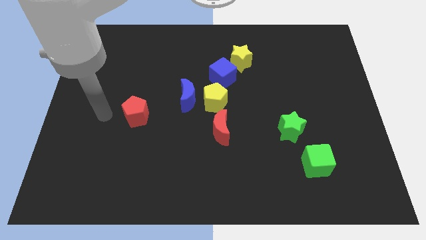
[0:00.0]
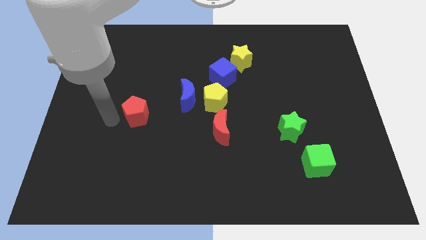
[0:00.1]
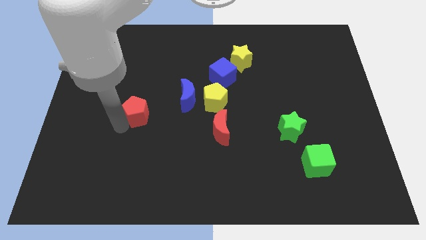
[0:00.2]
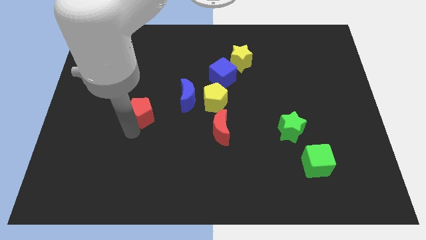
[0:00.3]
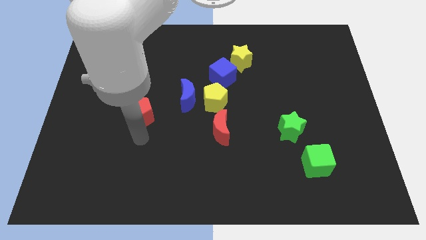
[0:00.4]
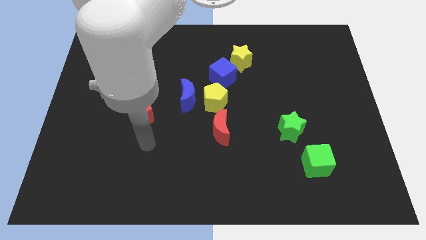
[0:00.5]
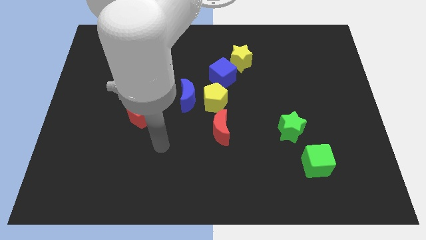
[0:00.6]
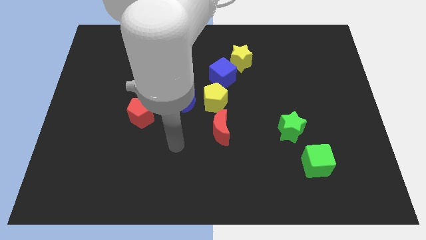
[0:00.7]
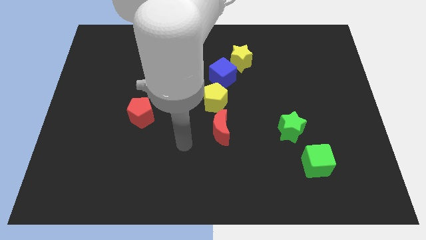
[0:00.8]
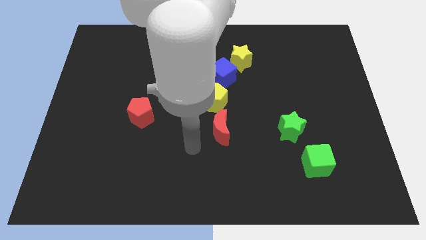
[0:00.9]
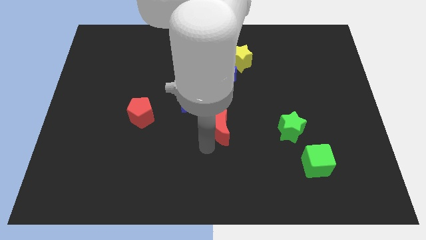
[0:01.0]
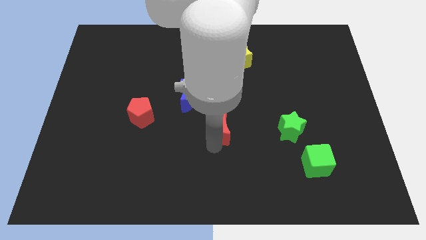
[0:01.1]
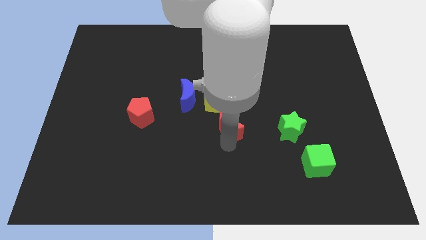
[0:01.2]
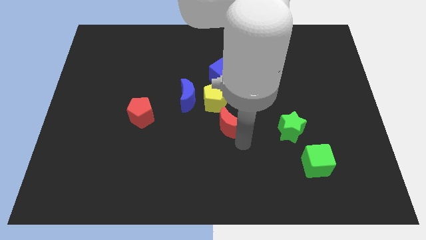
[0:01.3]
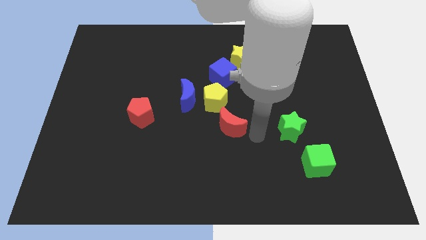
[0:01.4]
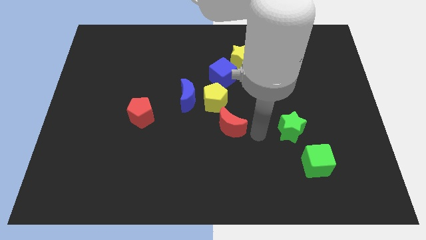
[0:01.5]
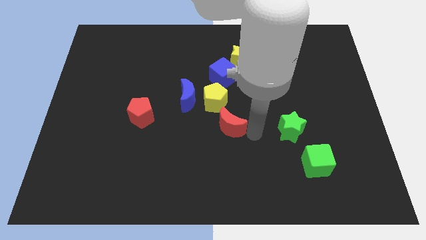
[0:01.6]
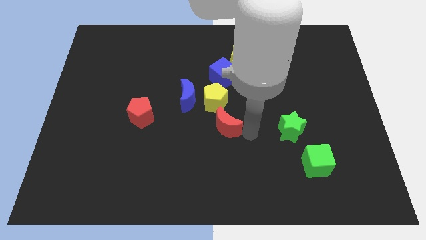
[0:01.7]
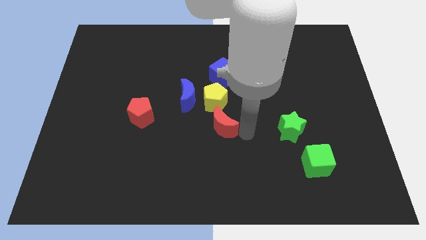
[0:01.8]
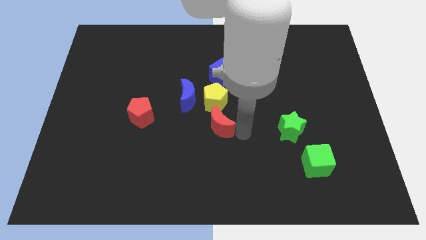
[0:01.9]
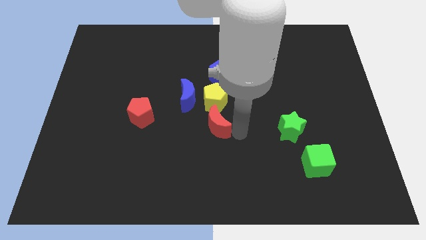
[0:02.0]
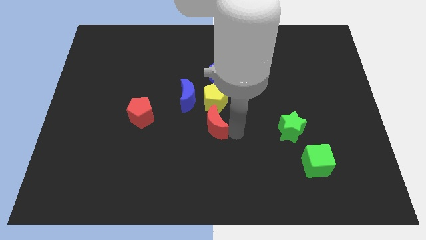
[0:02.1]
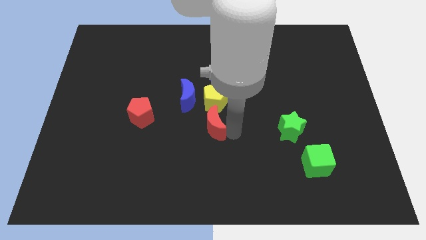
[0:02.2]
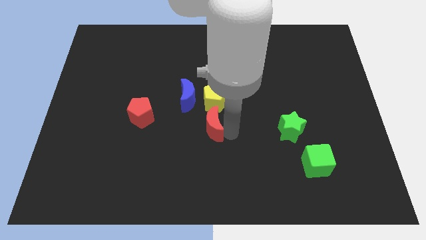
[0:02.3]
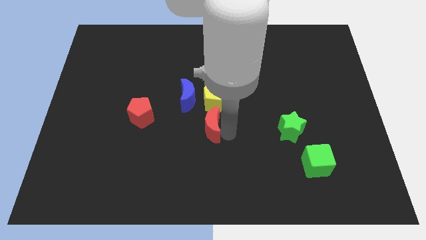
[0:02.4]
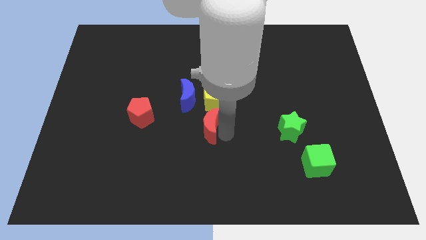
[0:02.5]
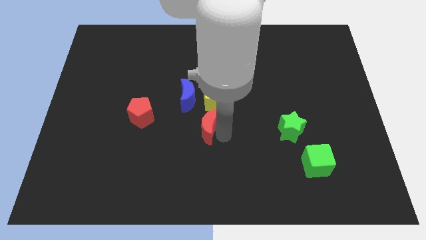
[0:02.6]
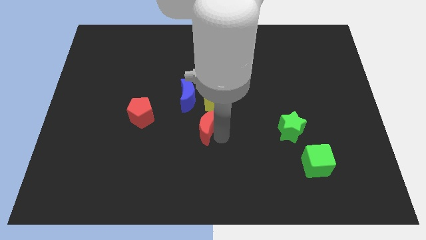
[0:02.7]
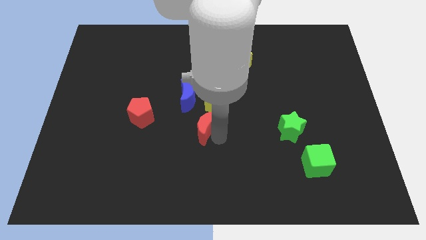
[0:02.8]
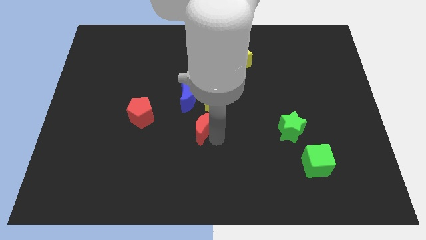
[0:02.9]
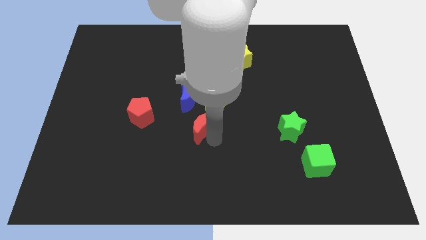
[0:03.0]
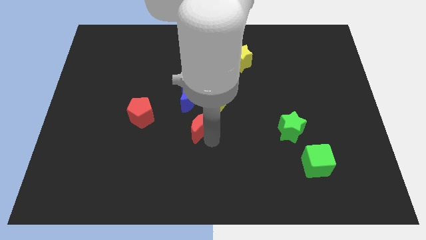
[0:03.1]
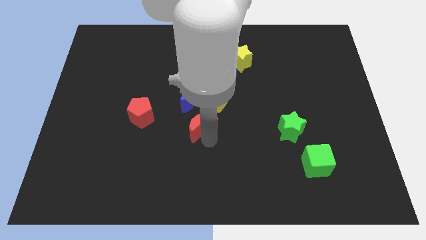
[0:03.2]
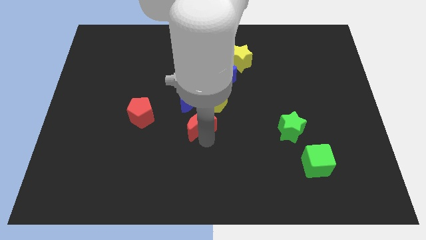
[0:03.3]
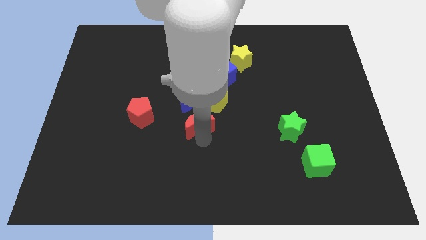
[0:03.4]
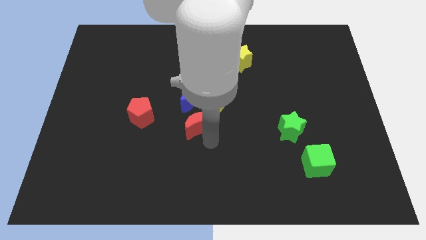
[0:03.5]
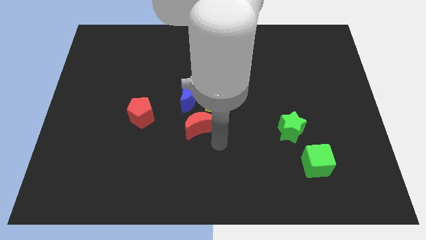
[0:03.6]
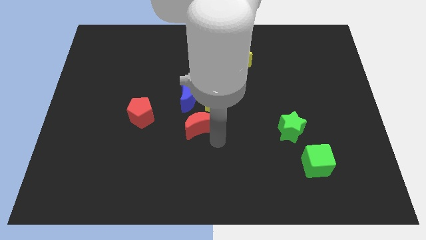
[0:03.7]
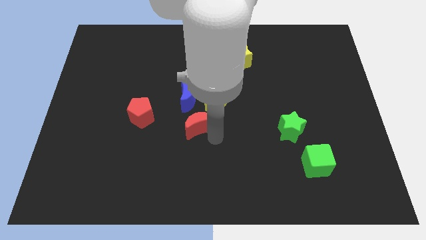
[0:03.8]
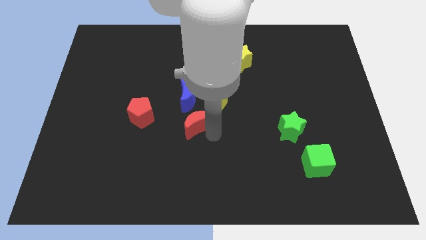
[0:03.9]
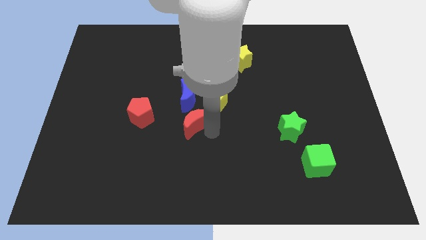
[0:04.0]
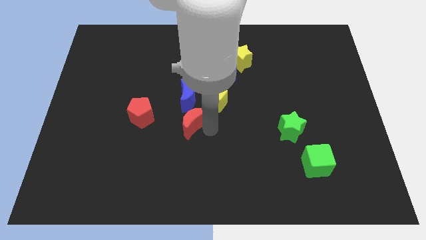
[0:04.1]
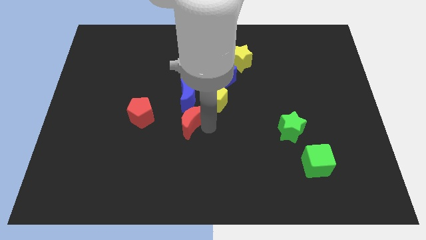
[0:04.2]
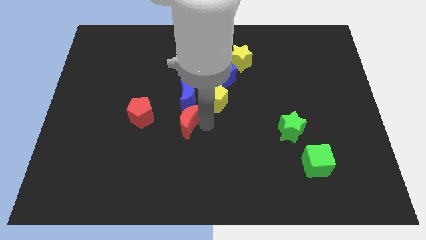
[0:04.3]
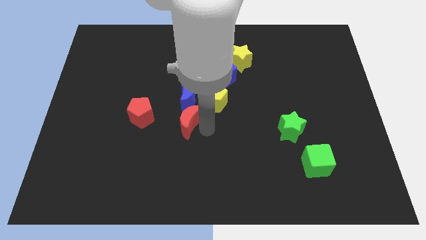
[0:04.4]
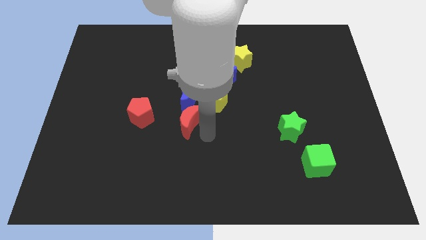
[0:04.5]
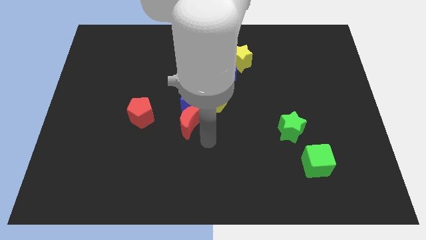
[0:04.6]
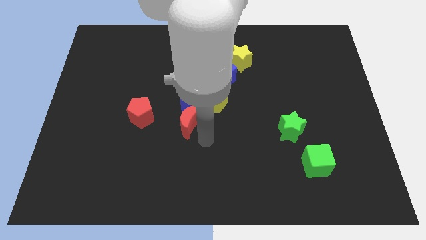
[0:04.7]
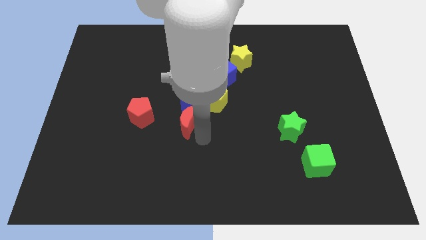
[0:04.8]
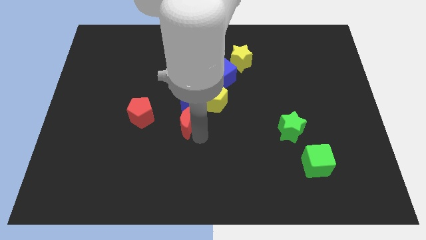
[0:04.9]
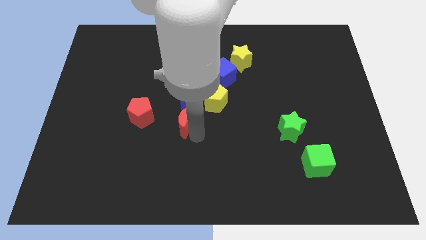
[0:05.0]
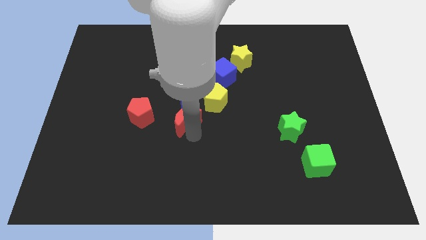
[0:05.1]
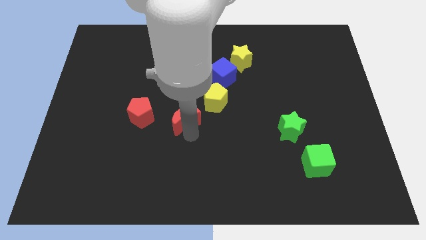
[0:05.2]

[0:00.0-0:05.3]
push the red moon somewhat diagonally up and to the left

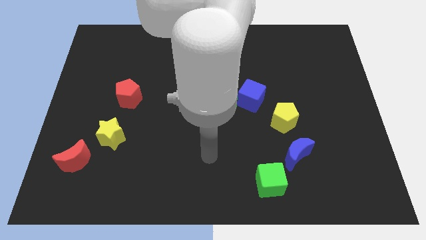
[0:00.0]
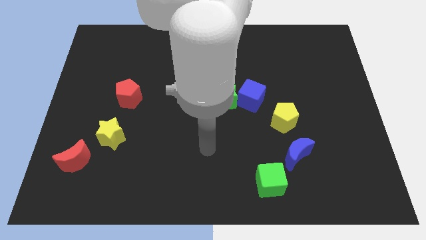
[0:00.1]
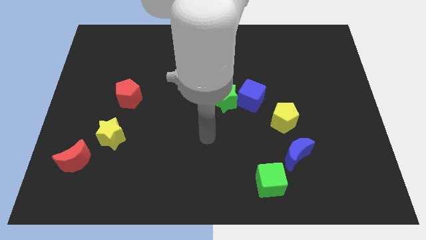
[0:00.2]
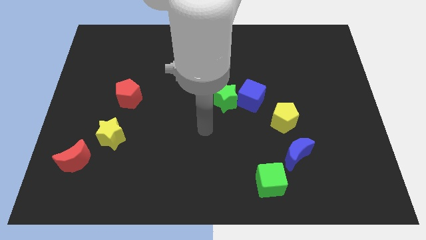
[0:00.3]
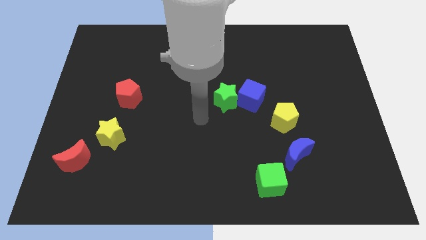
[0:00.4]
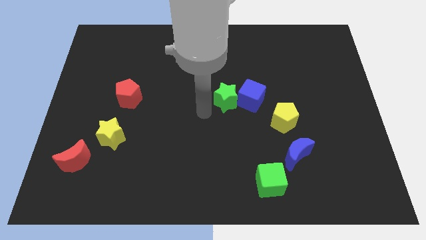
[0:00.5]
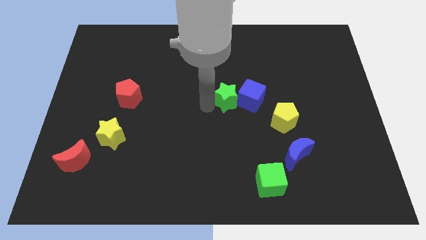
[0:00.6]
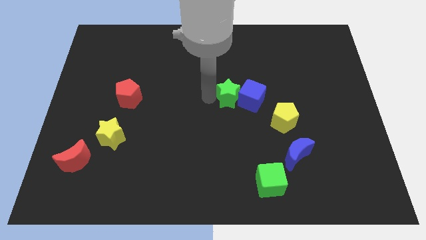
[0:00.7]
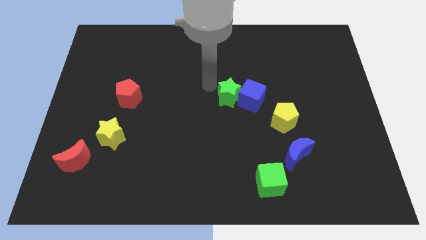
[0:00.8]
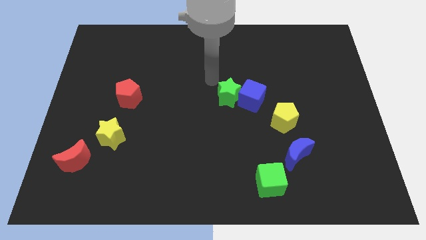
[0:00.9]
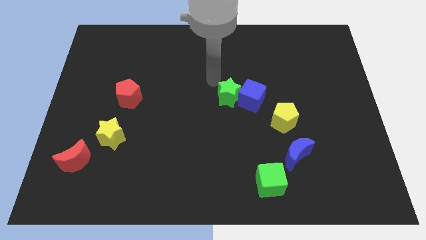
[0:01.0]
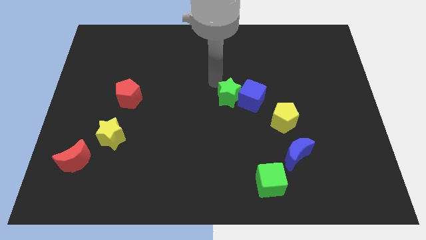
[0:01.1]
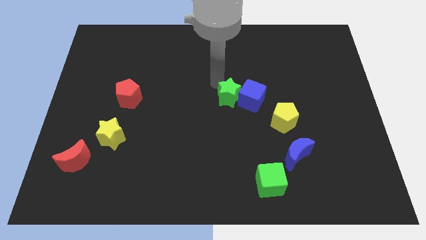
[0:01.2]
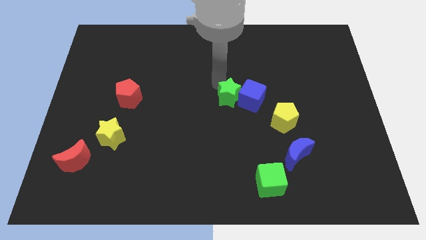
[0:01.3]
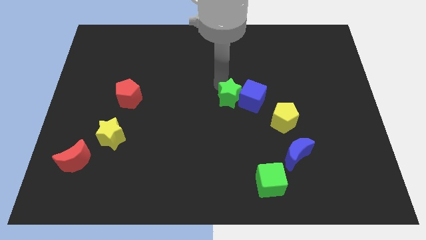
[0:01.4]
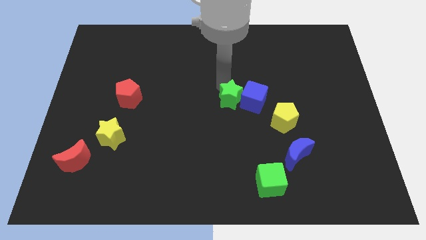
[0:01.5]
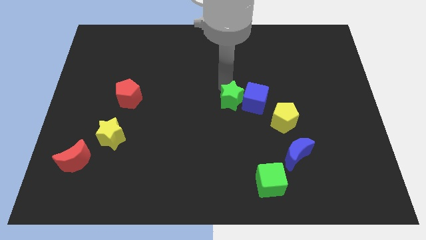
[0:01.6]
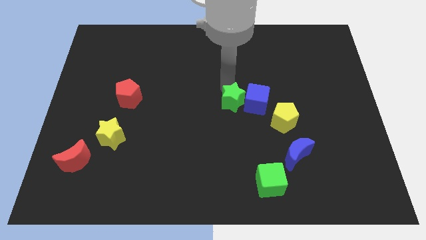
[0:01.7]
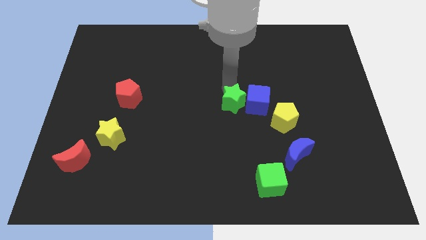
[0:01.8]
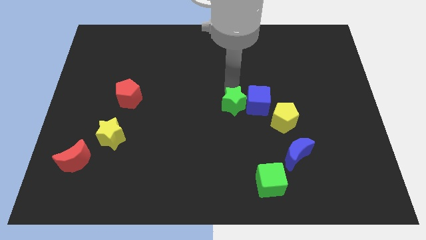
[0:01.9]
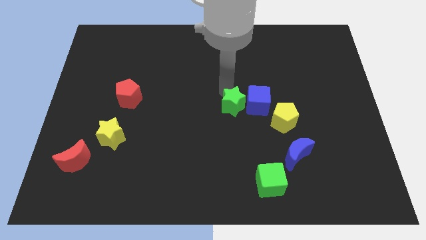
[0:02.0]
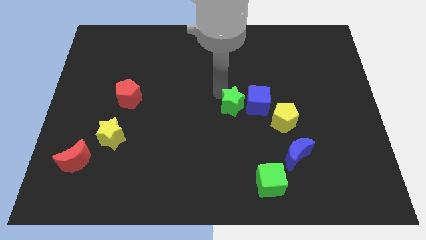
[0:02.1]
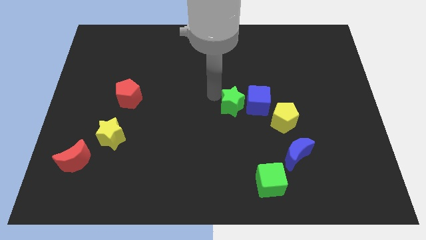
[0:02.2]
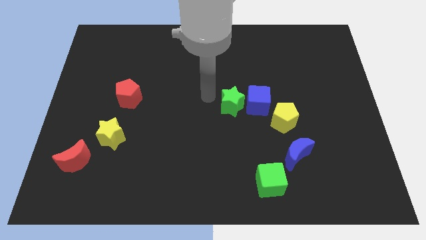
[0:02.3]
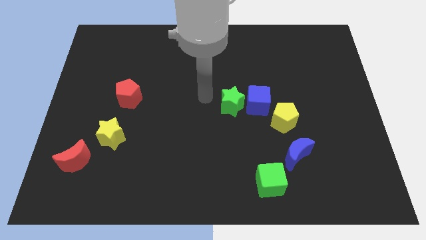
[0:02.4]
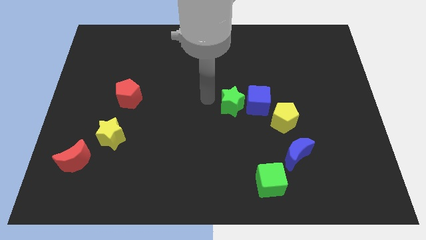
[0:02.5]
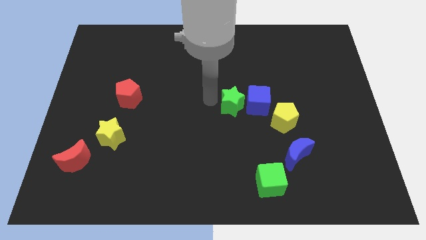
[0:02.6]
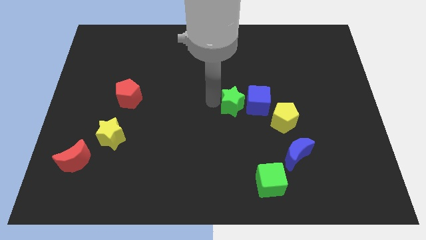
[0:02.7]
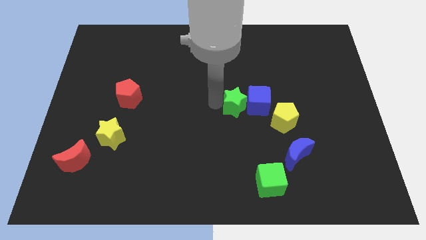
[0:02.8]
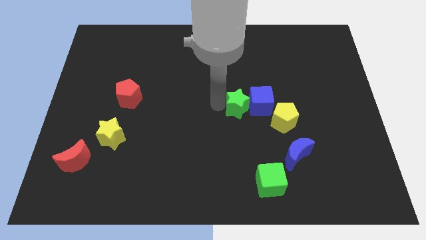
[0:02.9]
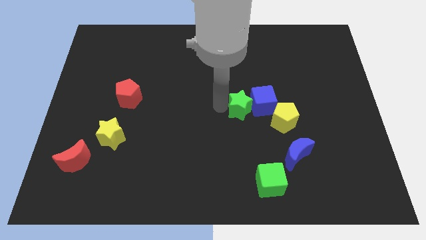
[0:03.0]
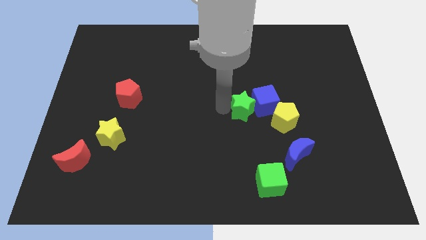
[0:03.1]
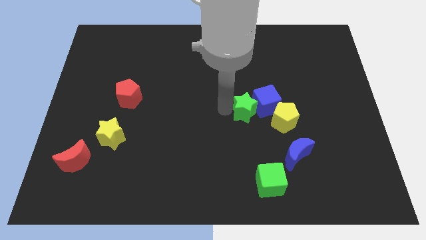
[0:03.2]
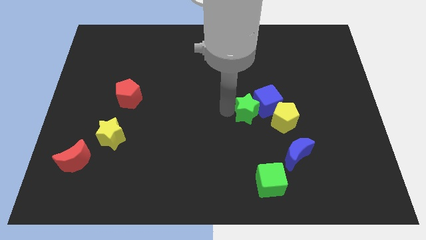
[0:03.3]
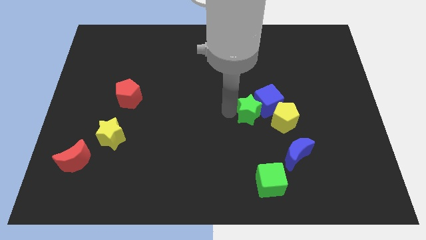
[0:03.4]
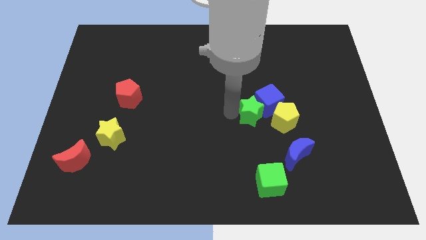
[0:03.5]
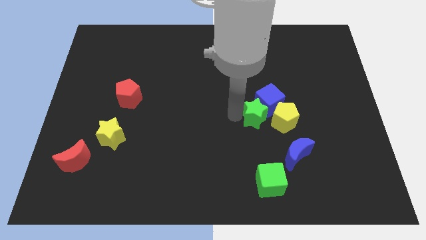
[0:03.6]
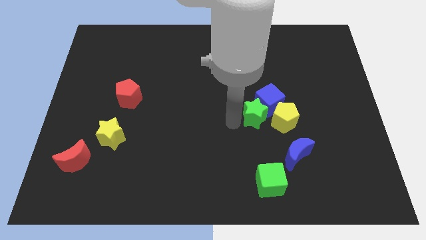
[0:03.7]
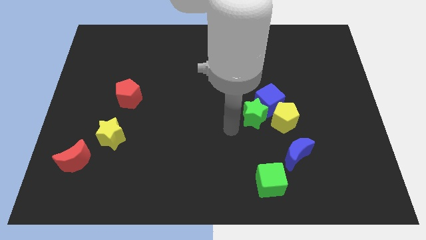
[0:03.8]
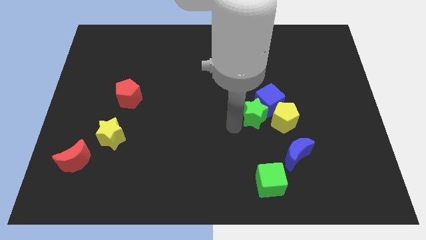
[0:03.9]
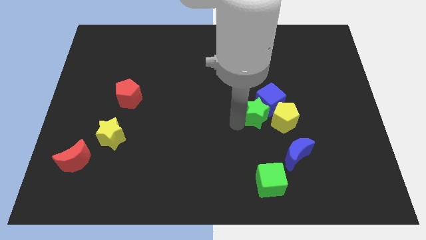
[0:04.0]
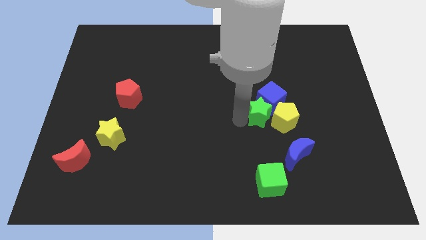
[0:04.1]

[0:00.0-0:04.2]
slightly slide the green star right
